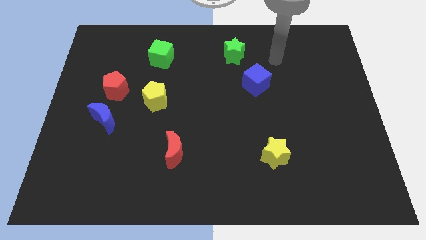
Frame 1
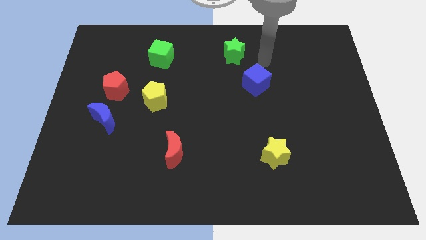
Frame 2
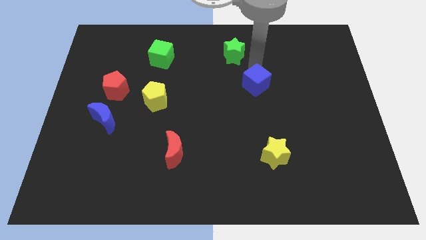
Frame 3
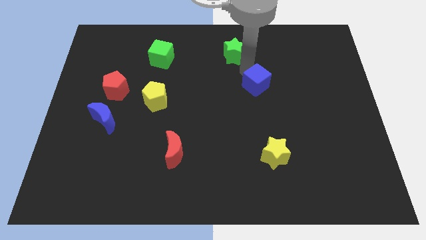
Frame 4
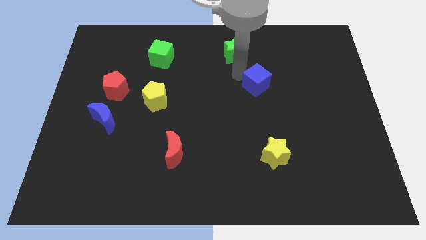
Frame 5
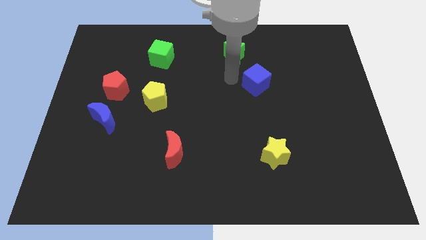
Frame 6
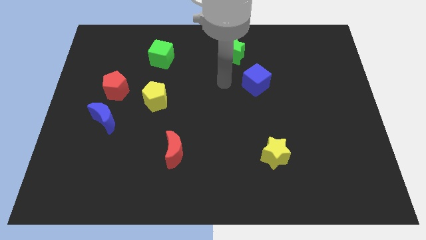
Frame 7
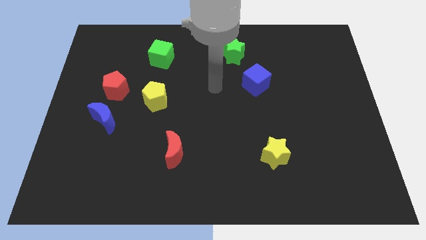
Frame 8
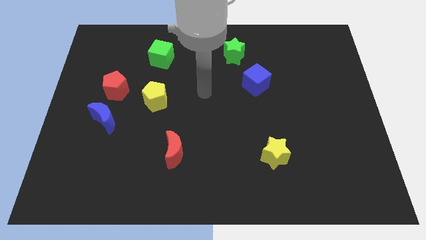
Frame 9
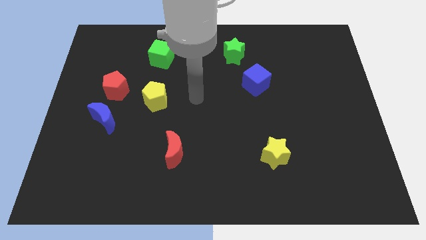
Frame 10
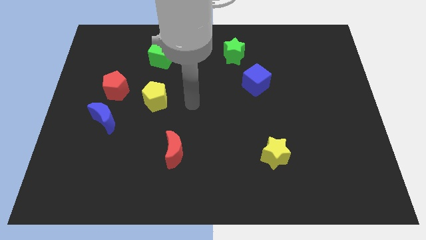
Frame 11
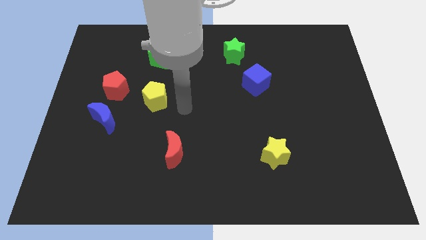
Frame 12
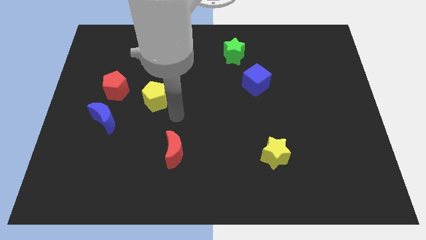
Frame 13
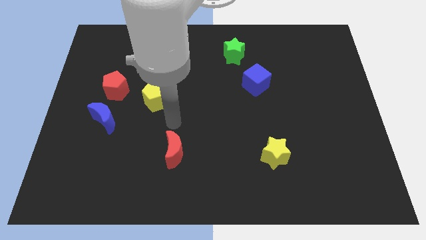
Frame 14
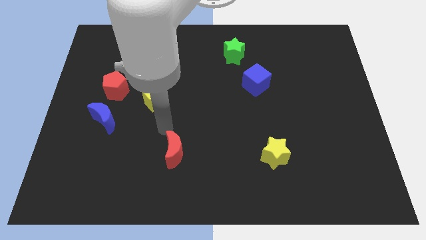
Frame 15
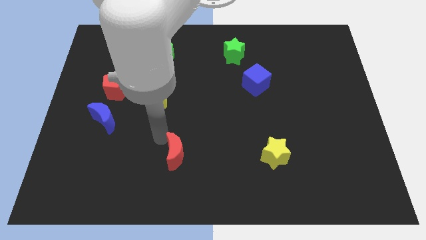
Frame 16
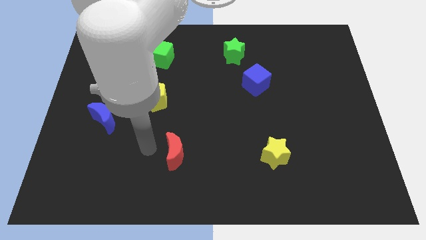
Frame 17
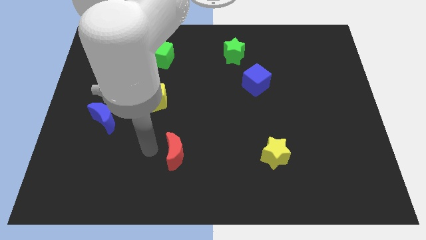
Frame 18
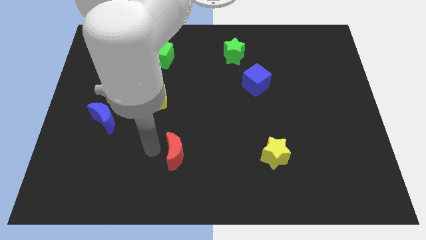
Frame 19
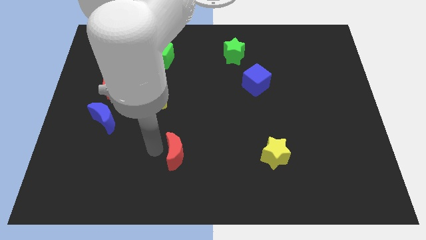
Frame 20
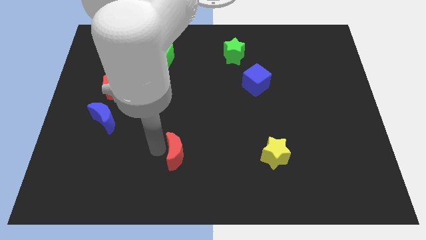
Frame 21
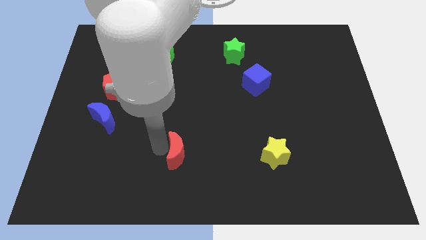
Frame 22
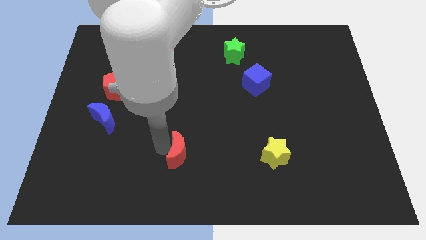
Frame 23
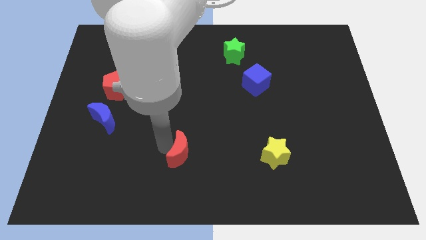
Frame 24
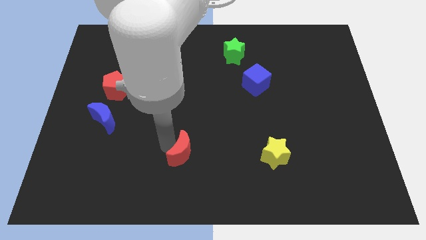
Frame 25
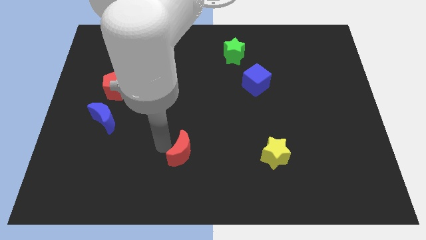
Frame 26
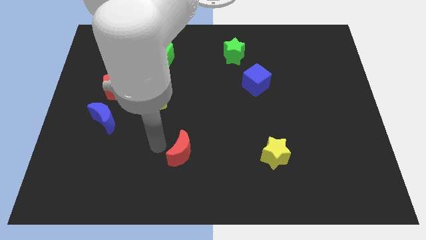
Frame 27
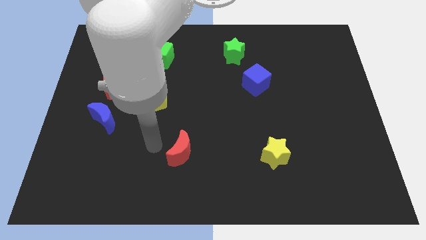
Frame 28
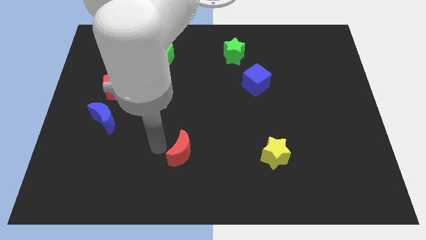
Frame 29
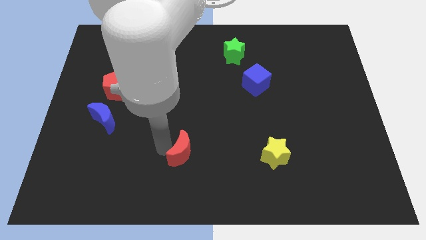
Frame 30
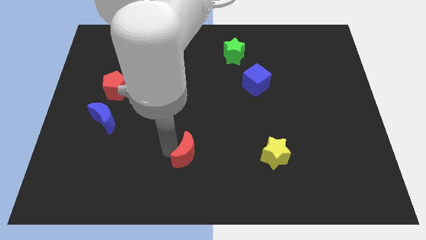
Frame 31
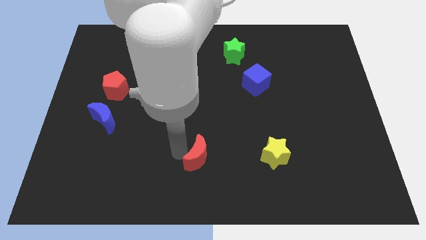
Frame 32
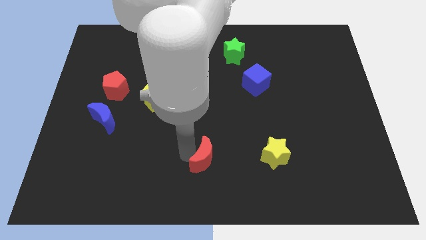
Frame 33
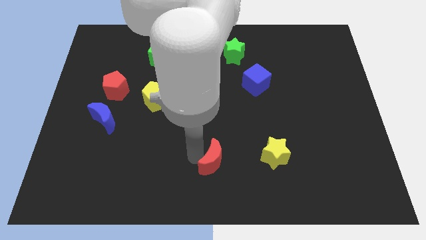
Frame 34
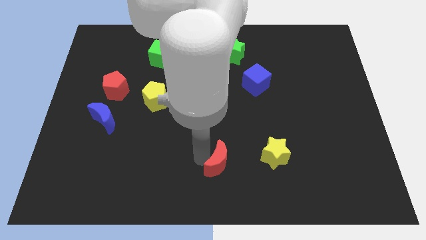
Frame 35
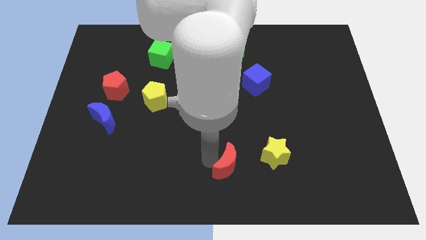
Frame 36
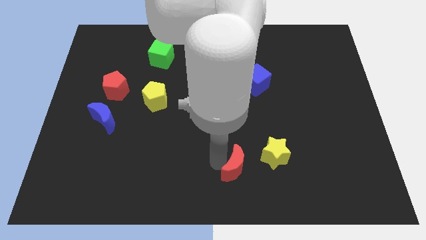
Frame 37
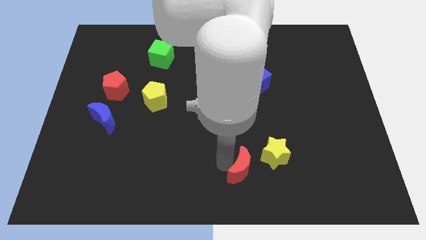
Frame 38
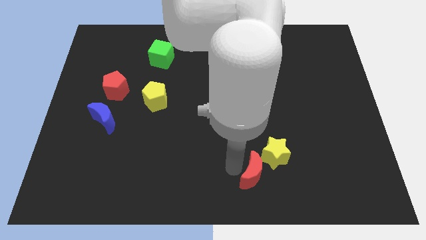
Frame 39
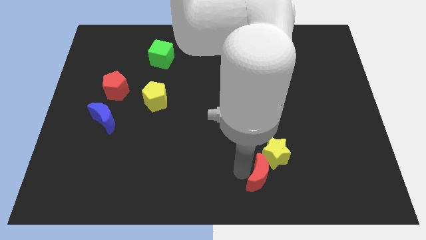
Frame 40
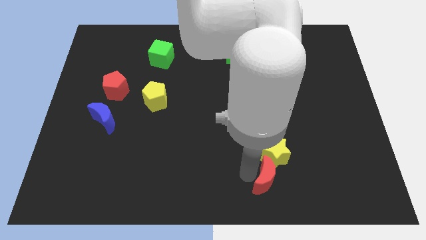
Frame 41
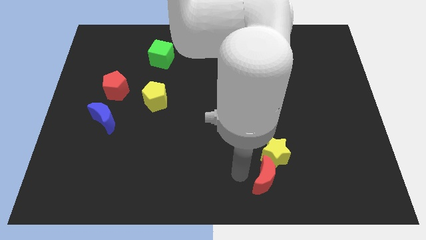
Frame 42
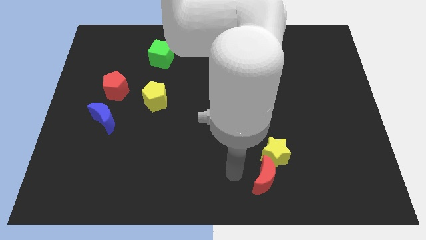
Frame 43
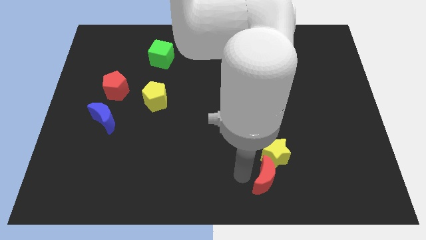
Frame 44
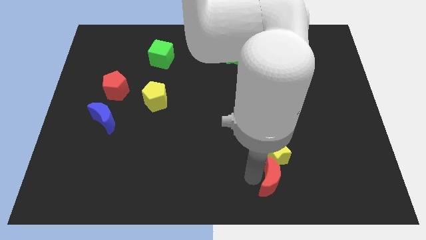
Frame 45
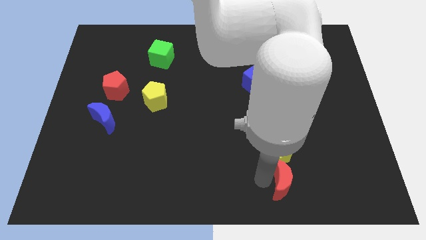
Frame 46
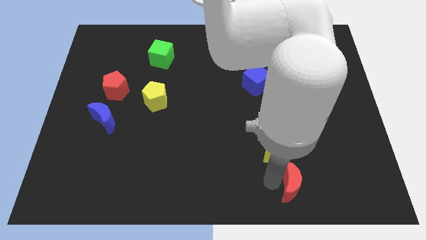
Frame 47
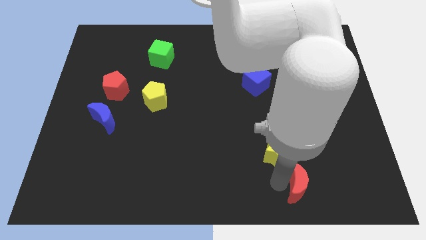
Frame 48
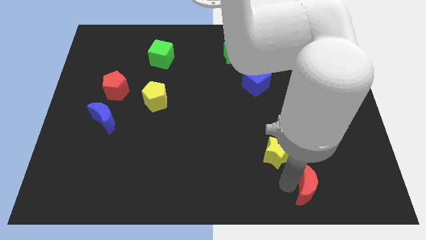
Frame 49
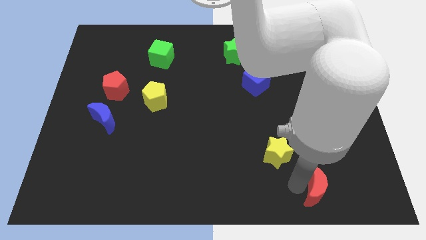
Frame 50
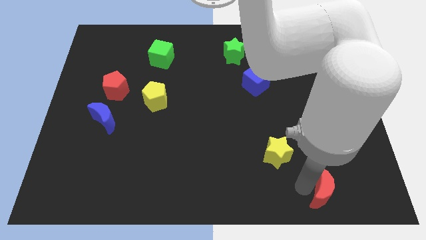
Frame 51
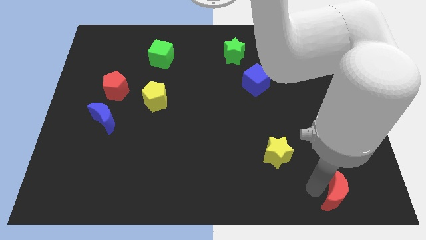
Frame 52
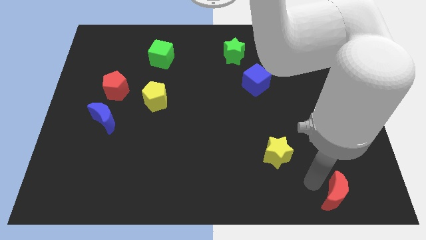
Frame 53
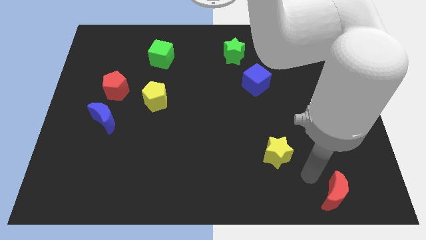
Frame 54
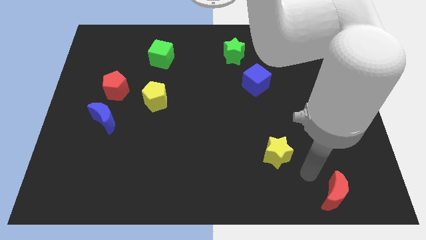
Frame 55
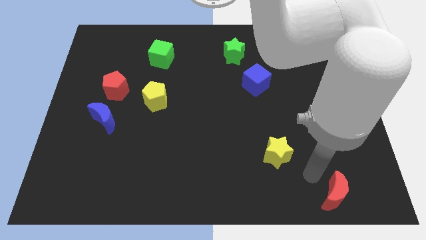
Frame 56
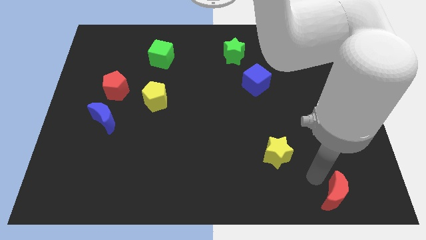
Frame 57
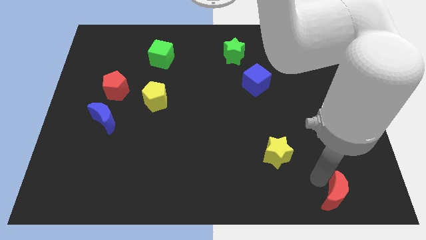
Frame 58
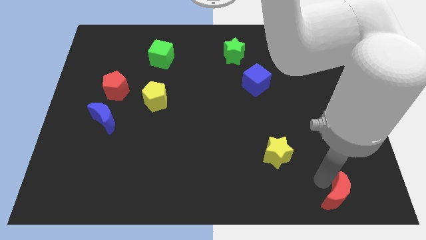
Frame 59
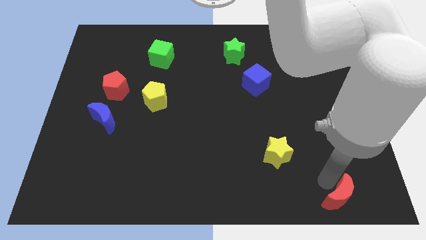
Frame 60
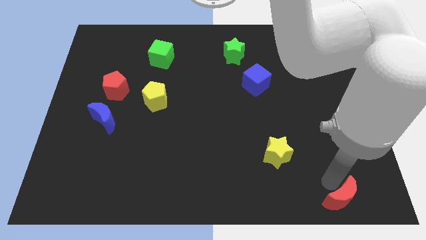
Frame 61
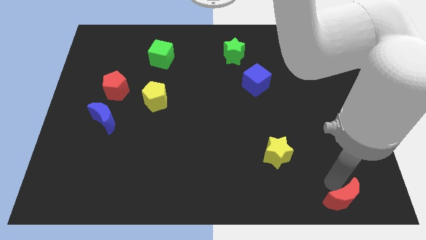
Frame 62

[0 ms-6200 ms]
put the red moon to the bottom right of the board
